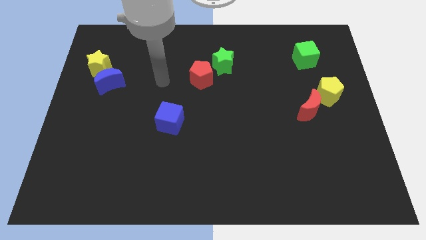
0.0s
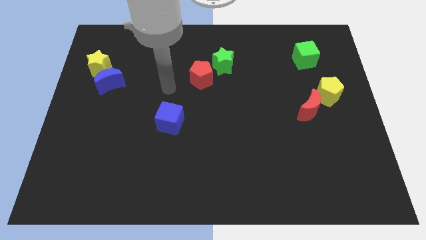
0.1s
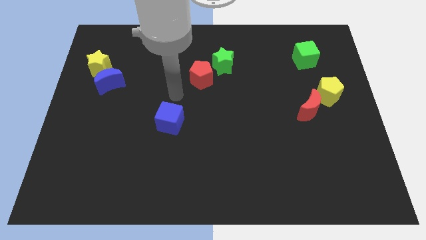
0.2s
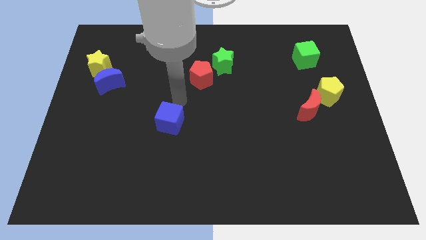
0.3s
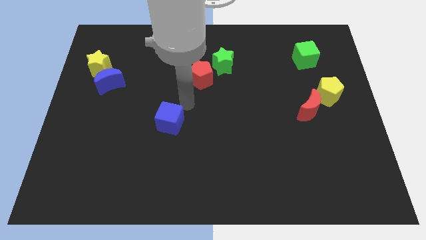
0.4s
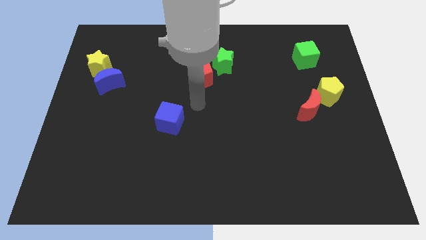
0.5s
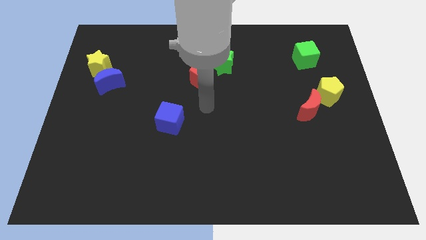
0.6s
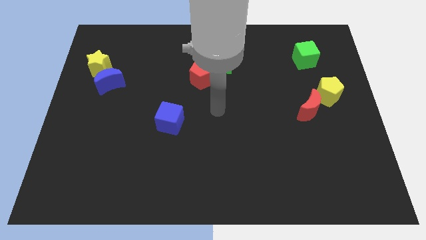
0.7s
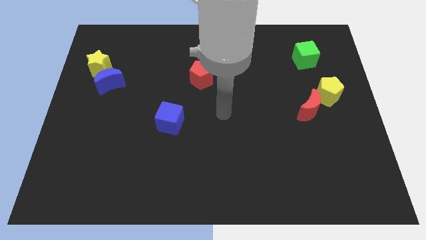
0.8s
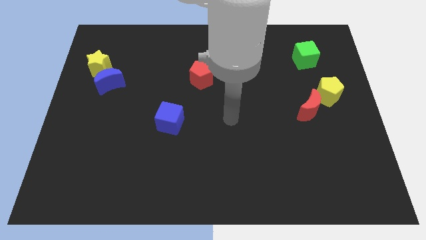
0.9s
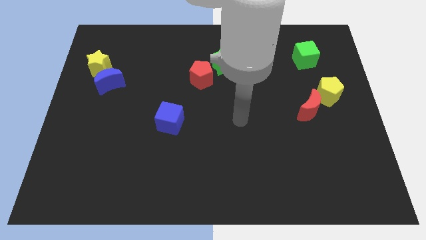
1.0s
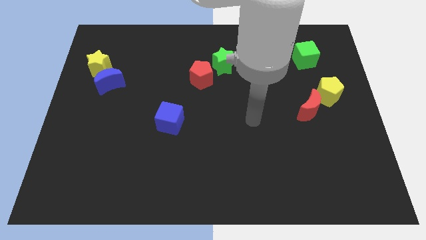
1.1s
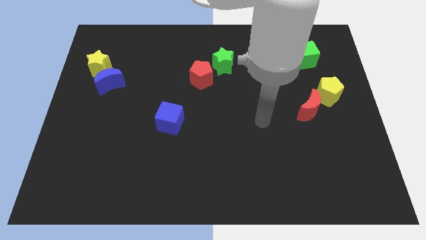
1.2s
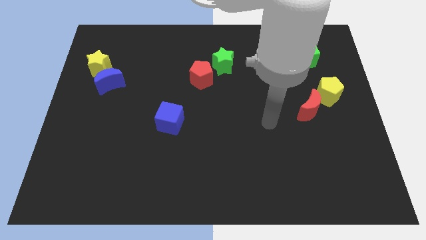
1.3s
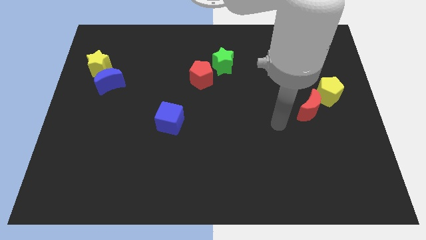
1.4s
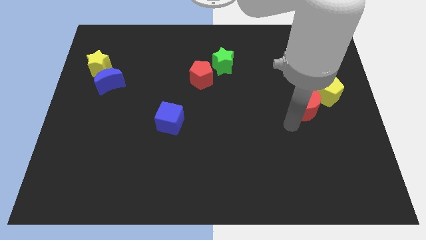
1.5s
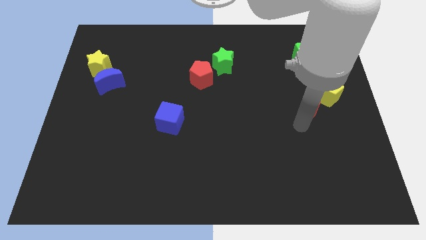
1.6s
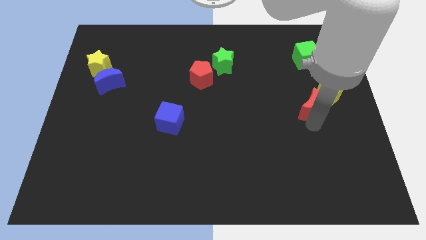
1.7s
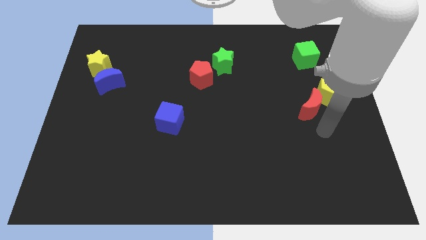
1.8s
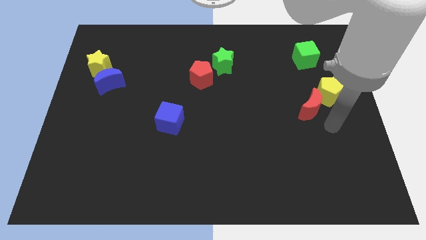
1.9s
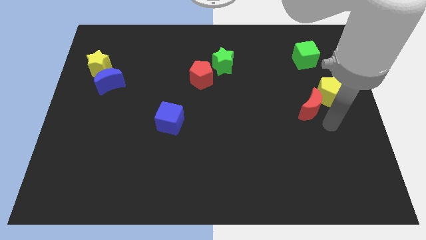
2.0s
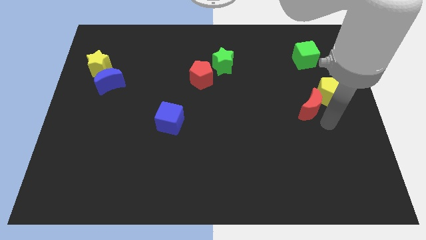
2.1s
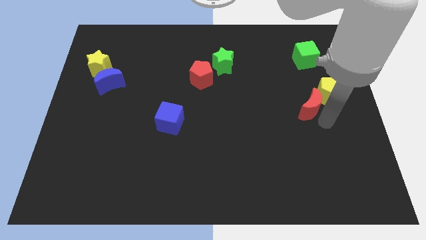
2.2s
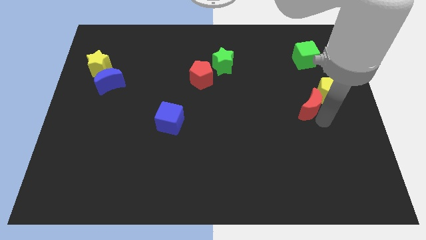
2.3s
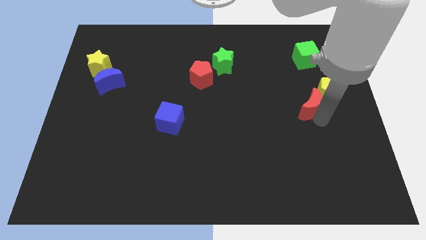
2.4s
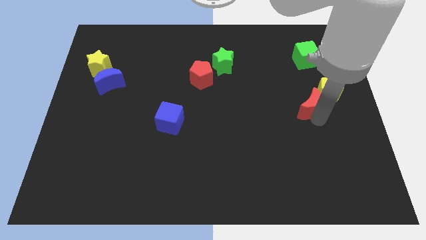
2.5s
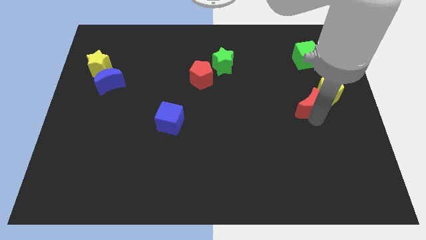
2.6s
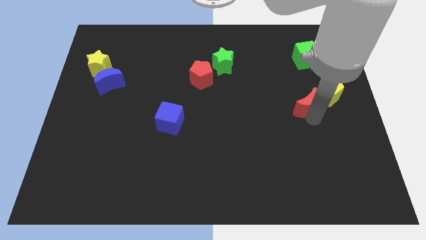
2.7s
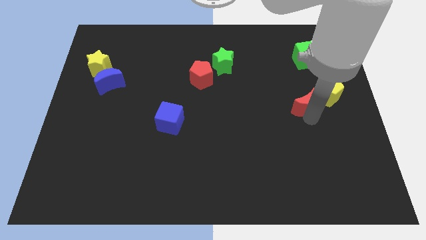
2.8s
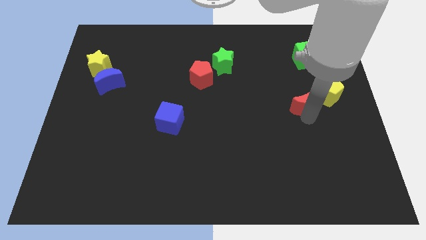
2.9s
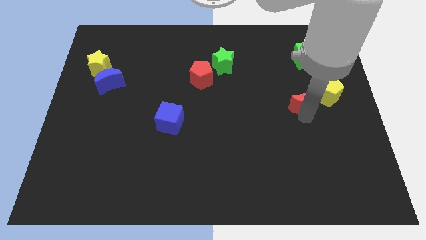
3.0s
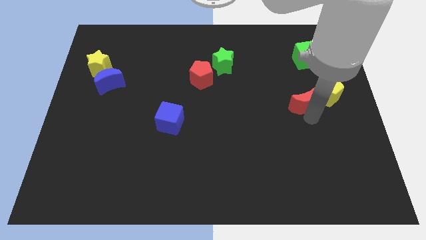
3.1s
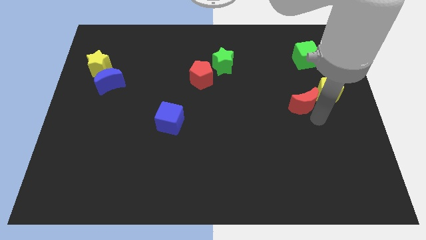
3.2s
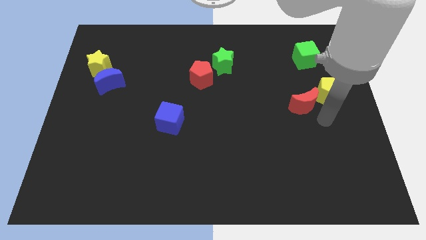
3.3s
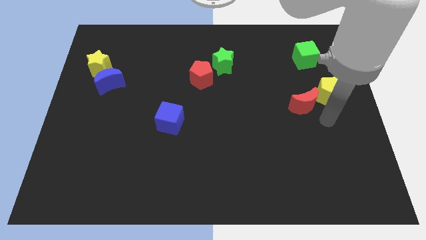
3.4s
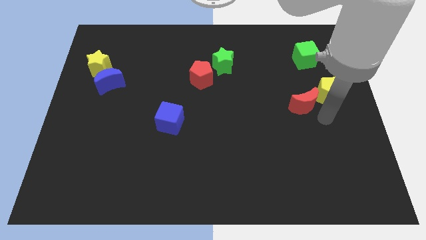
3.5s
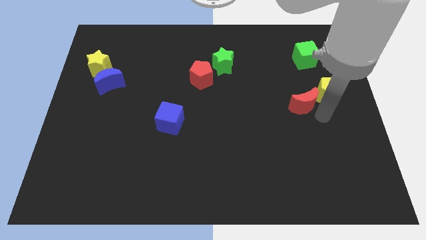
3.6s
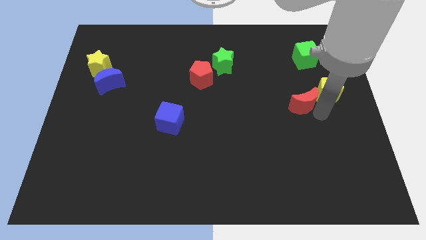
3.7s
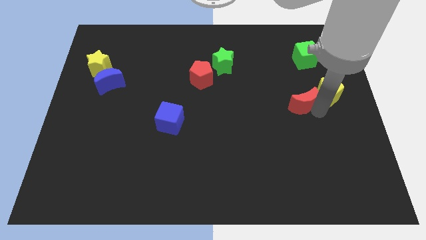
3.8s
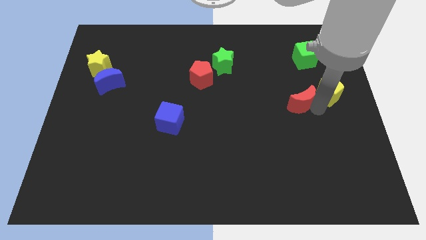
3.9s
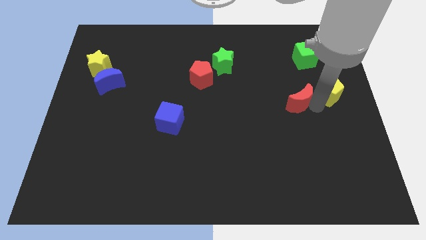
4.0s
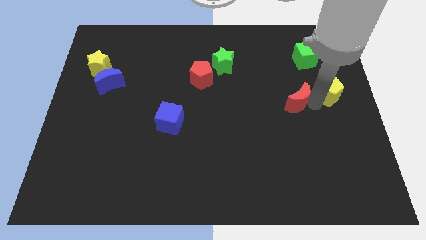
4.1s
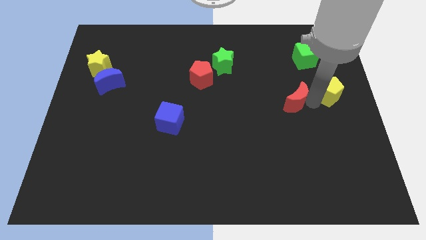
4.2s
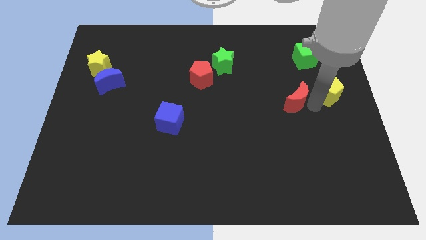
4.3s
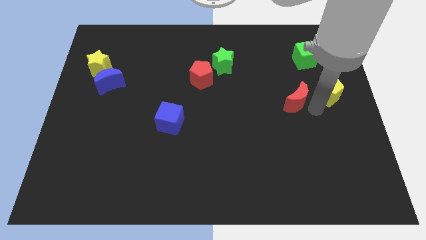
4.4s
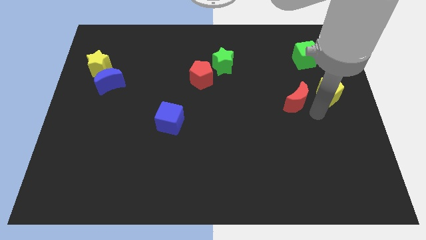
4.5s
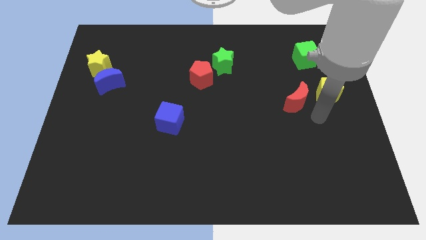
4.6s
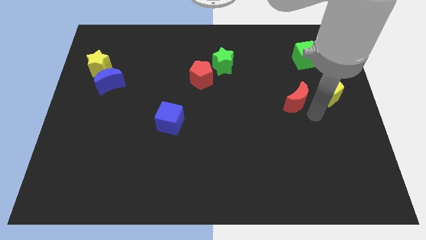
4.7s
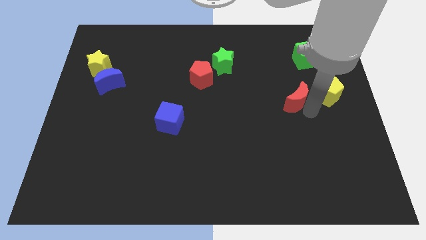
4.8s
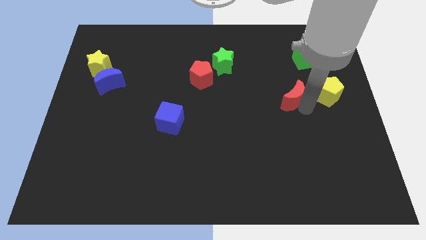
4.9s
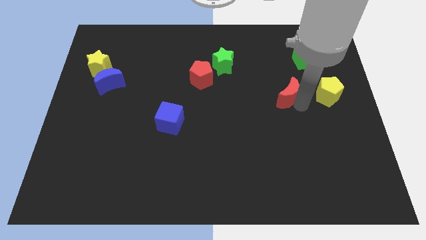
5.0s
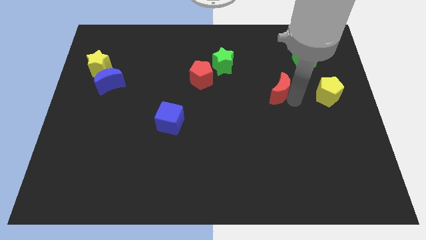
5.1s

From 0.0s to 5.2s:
slightly move the red moon upwards and left

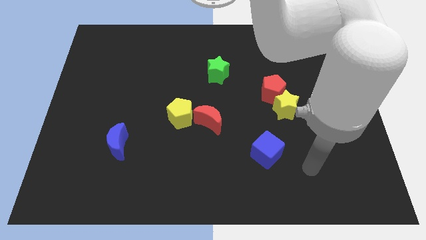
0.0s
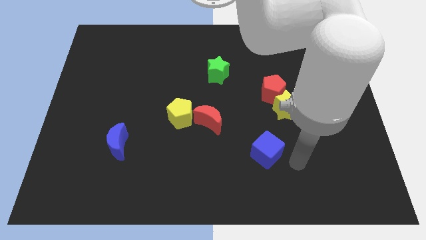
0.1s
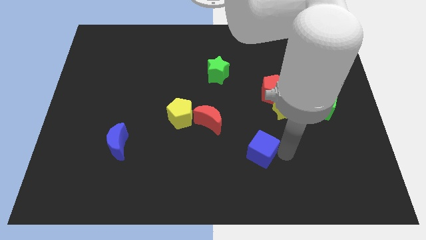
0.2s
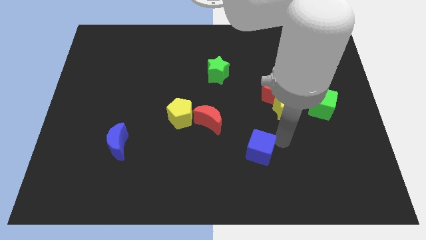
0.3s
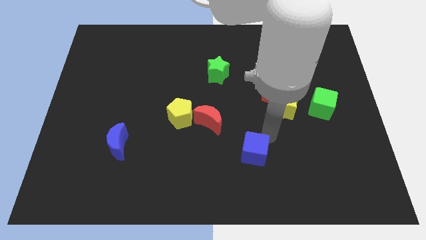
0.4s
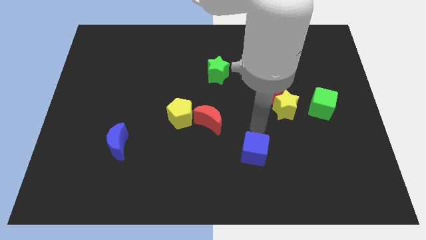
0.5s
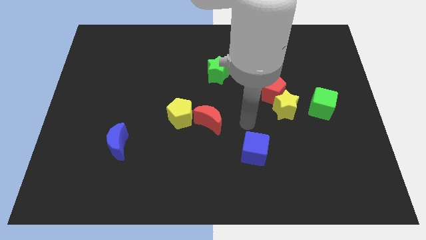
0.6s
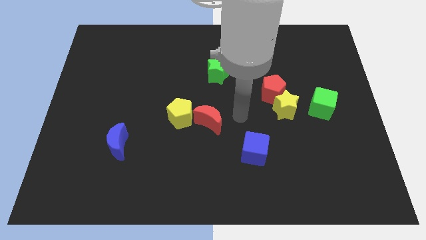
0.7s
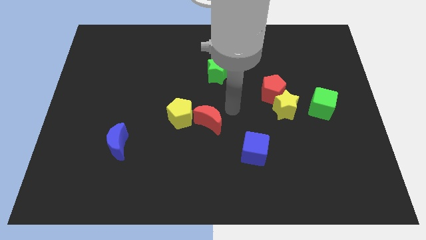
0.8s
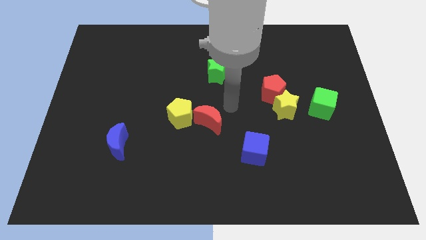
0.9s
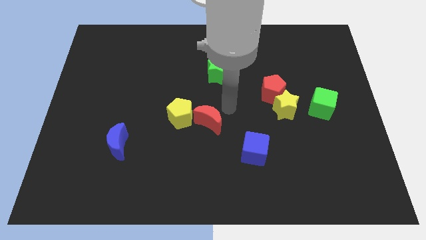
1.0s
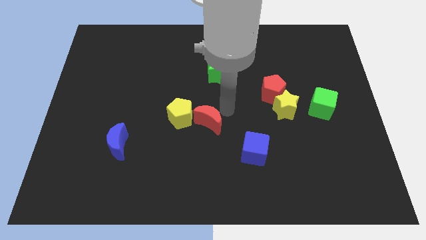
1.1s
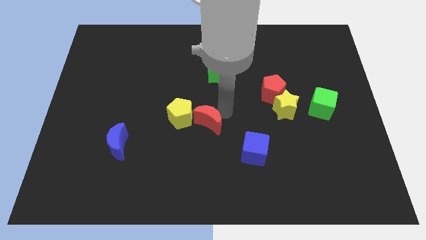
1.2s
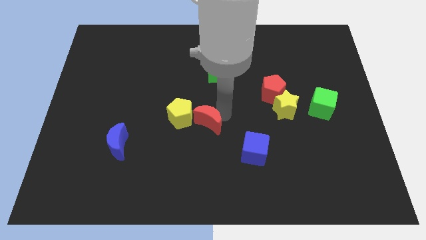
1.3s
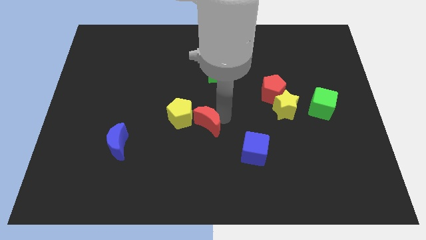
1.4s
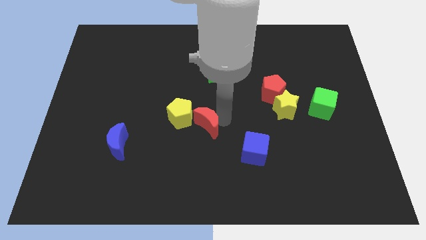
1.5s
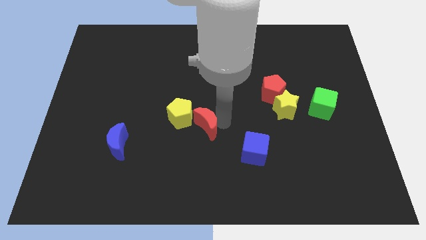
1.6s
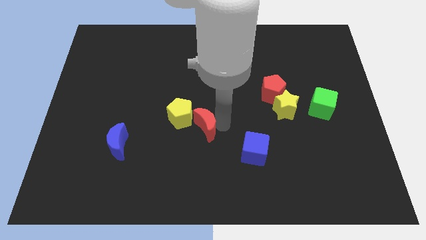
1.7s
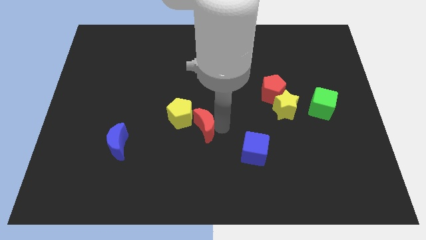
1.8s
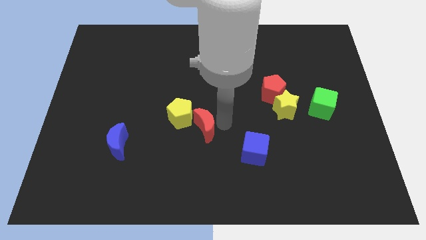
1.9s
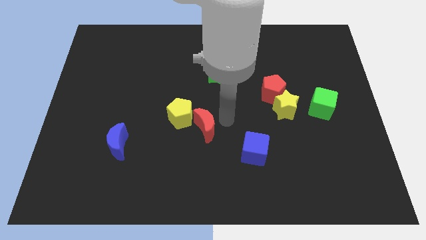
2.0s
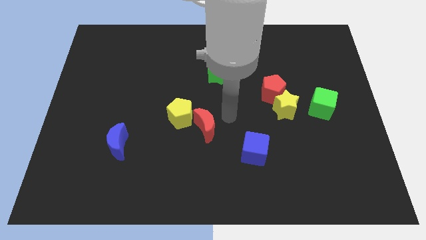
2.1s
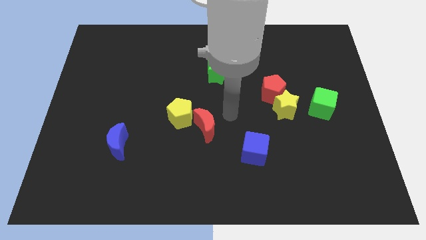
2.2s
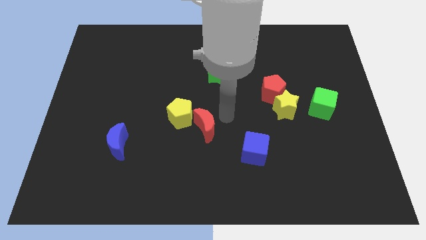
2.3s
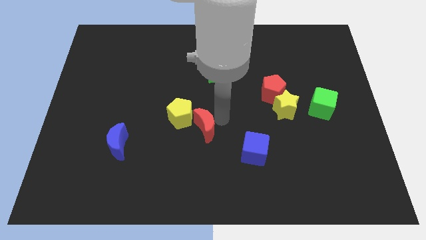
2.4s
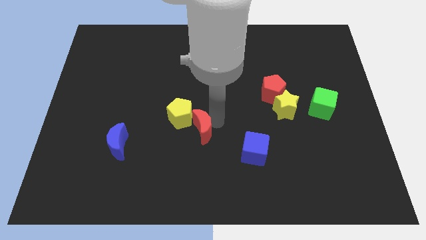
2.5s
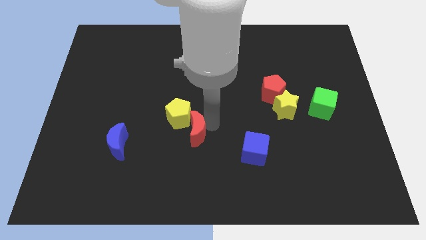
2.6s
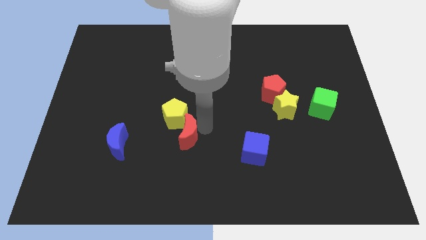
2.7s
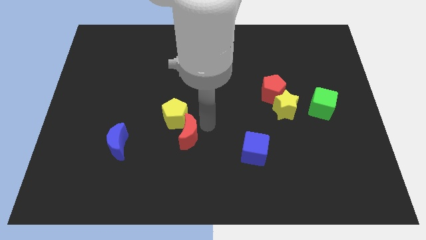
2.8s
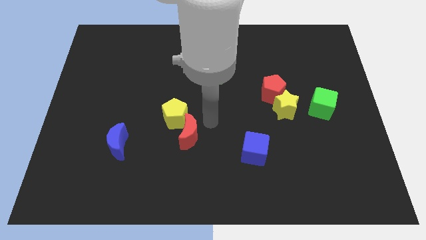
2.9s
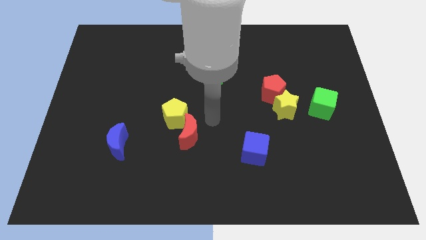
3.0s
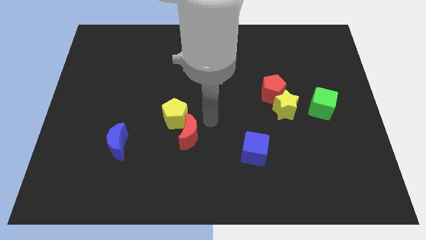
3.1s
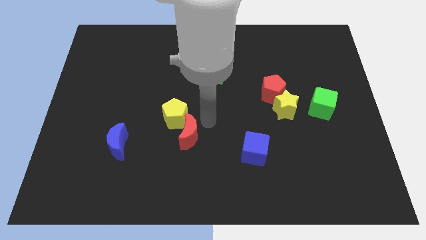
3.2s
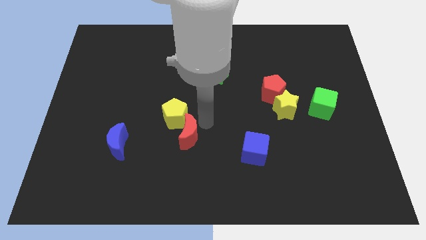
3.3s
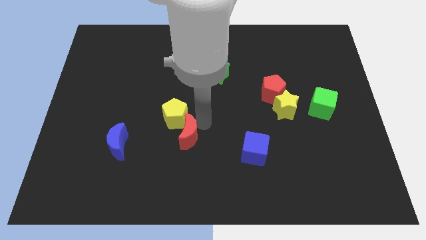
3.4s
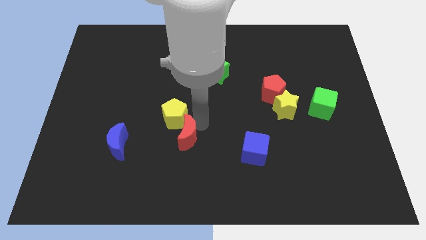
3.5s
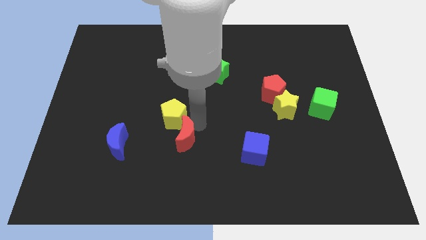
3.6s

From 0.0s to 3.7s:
push the red moon slightly down and to the left diagonally
